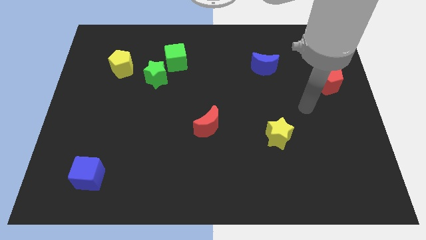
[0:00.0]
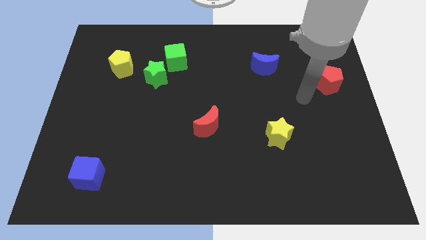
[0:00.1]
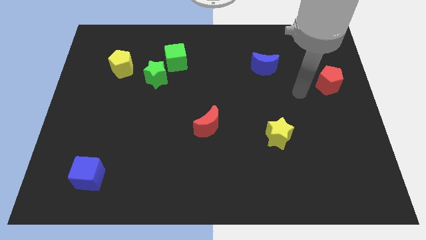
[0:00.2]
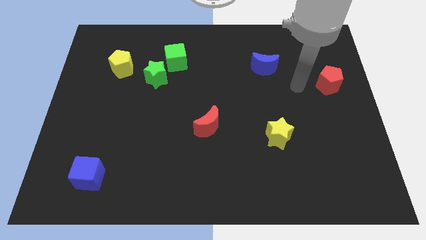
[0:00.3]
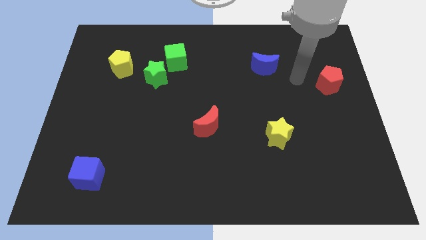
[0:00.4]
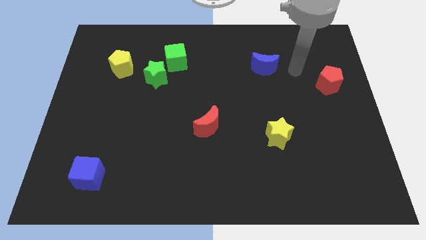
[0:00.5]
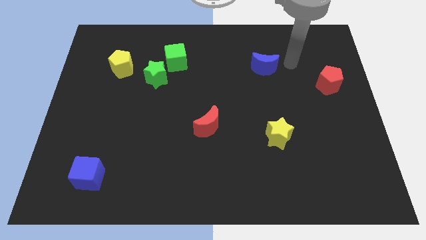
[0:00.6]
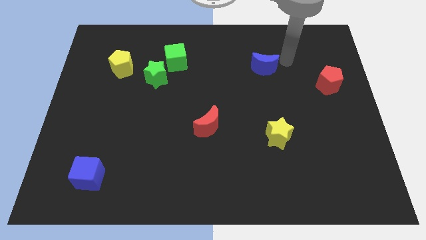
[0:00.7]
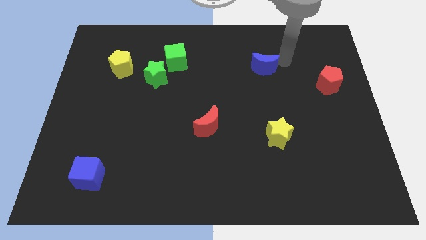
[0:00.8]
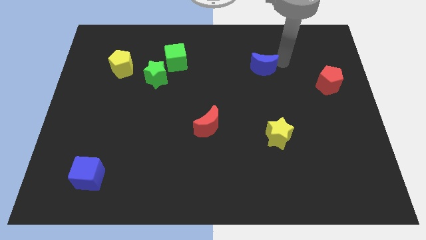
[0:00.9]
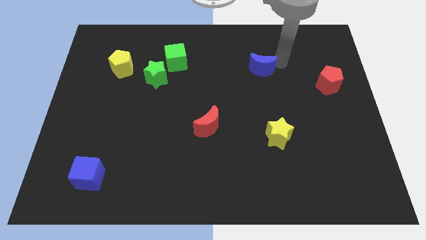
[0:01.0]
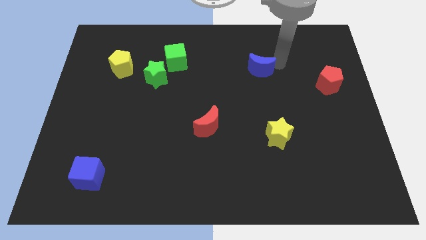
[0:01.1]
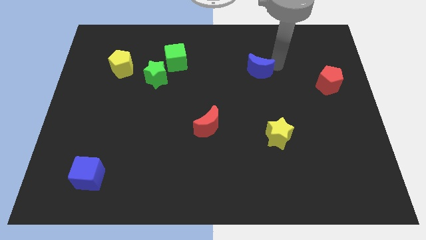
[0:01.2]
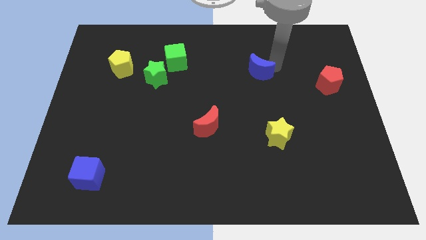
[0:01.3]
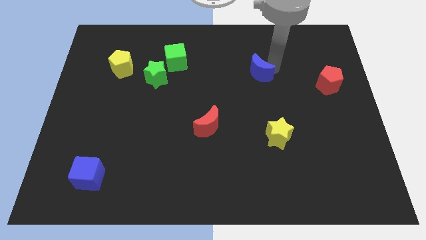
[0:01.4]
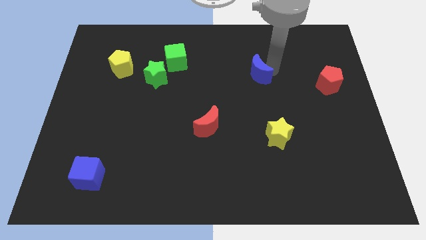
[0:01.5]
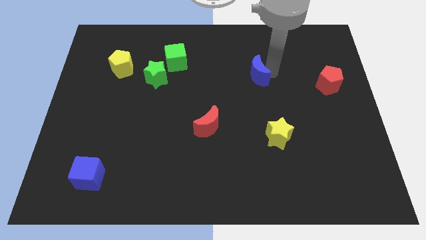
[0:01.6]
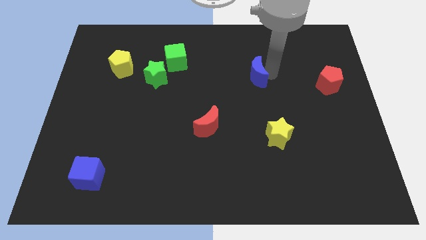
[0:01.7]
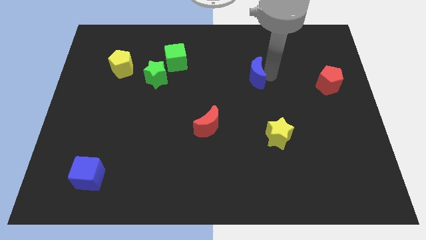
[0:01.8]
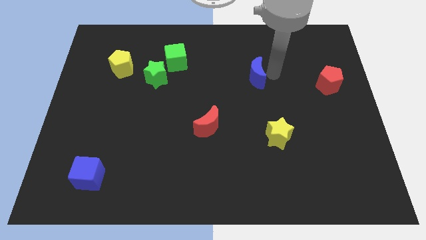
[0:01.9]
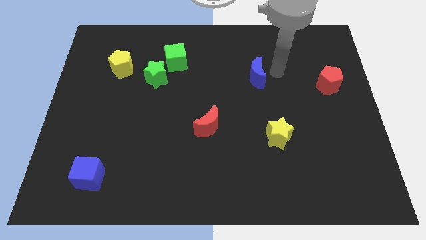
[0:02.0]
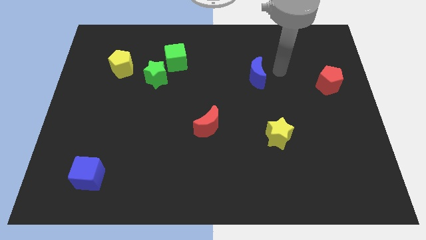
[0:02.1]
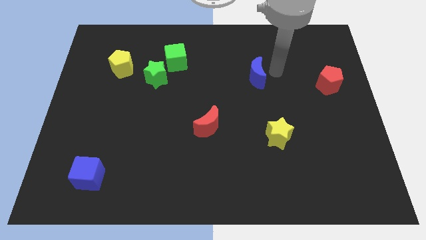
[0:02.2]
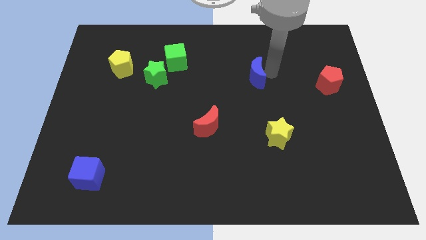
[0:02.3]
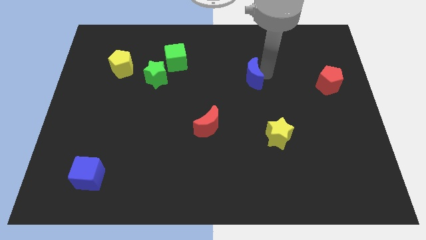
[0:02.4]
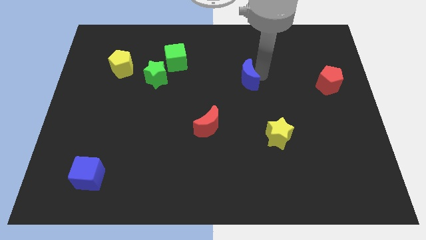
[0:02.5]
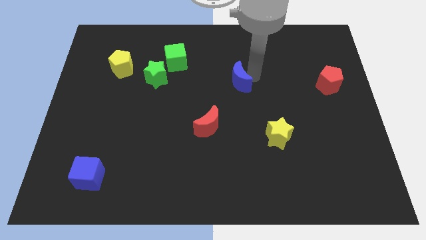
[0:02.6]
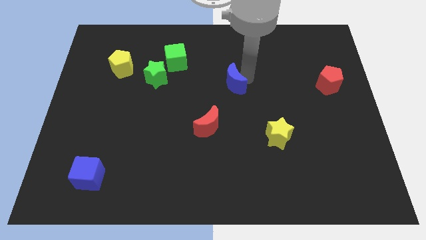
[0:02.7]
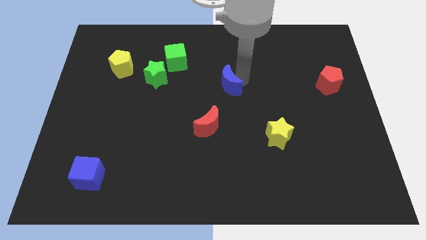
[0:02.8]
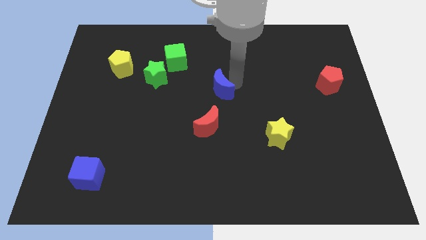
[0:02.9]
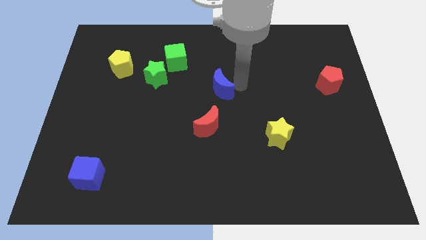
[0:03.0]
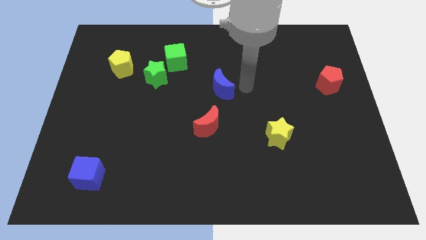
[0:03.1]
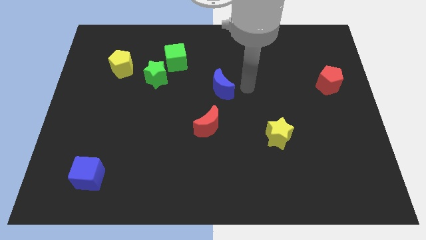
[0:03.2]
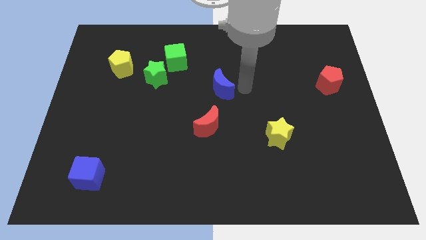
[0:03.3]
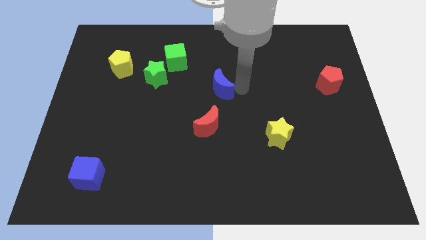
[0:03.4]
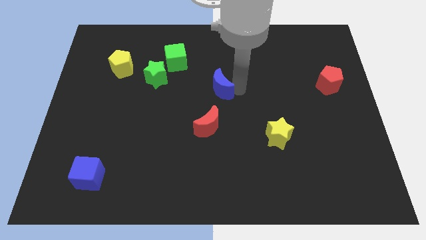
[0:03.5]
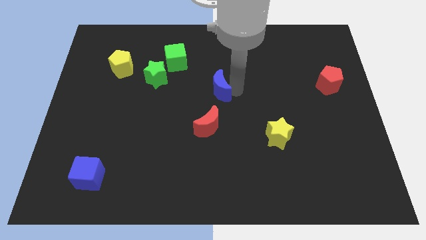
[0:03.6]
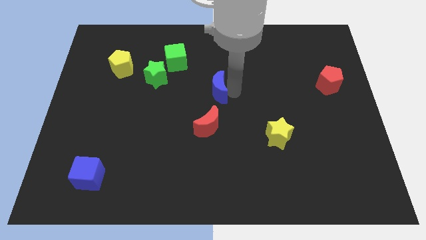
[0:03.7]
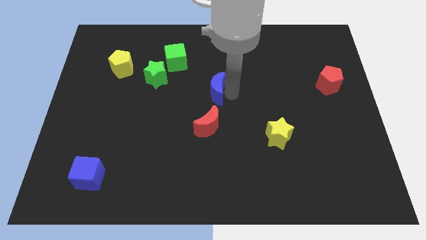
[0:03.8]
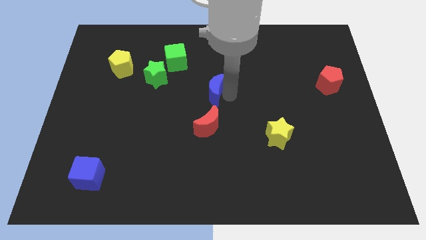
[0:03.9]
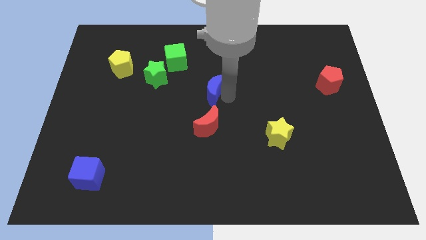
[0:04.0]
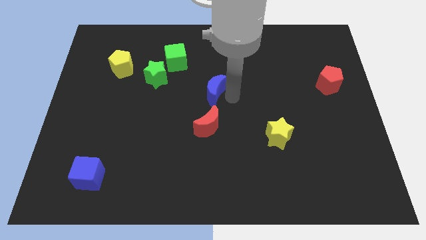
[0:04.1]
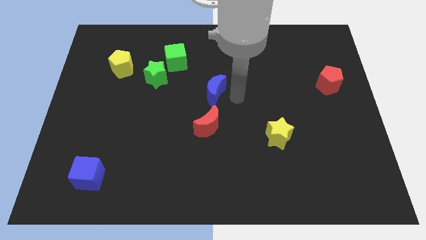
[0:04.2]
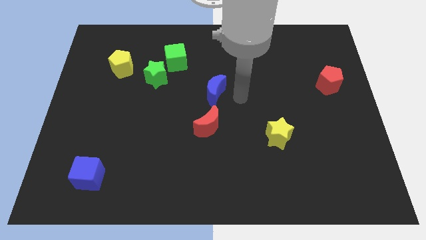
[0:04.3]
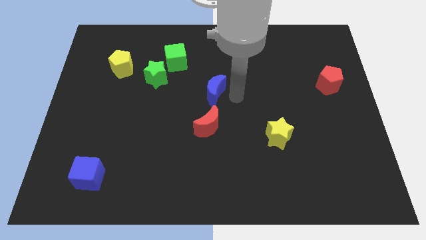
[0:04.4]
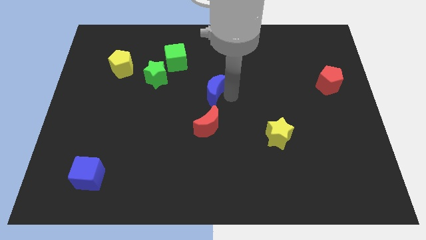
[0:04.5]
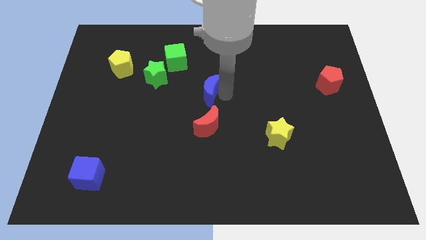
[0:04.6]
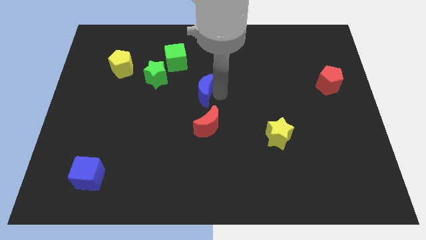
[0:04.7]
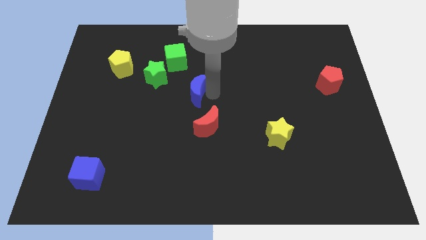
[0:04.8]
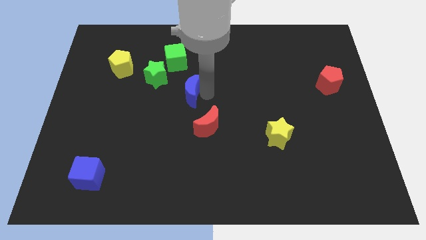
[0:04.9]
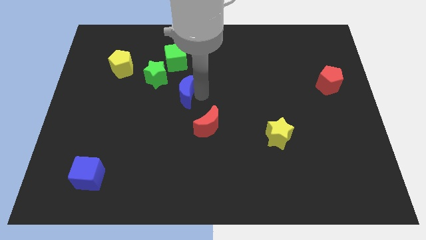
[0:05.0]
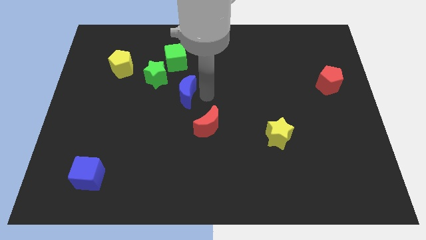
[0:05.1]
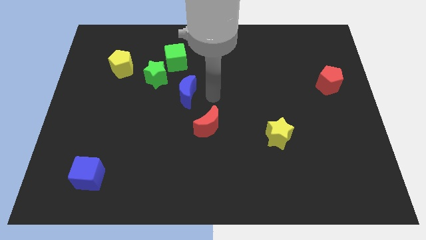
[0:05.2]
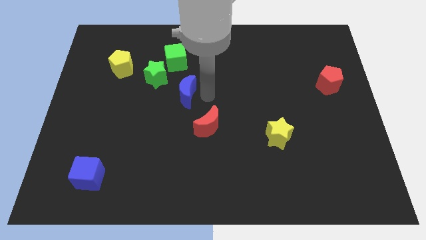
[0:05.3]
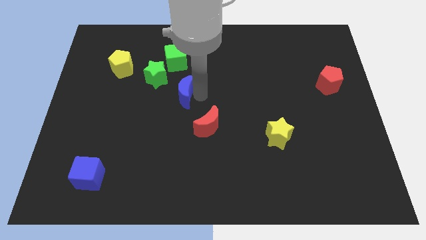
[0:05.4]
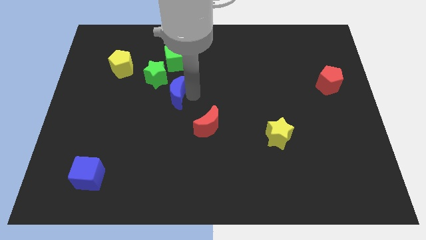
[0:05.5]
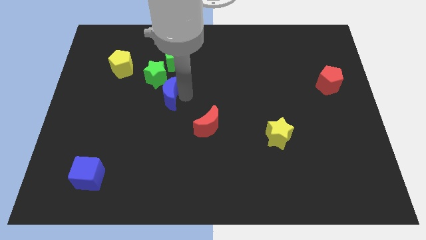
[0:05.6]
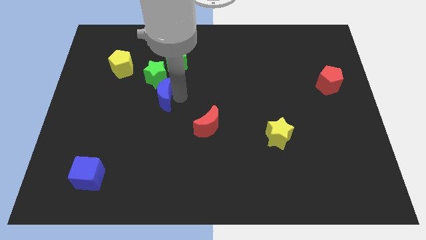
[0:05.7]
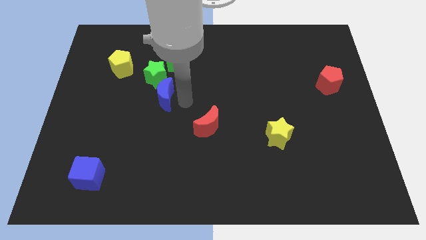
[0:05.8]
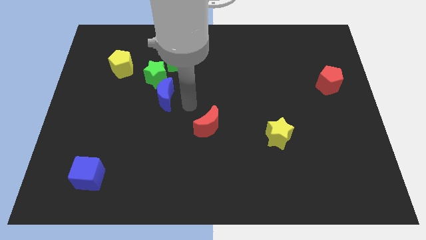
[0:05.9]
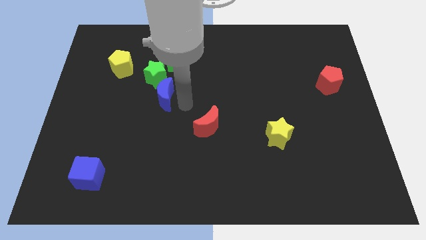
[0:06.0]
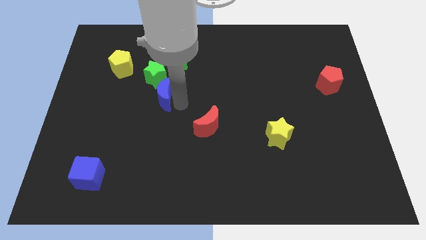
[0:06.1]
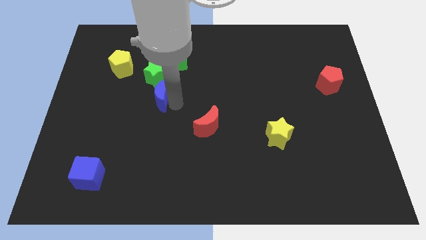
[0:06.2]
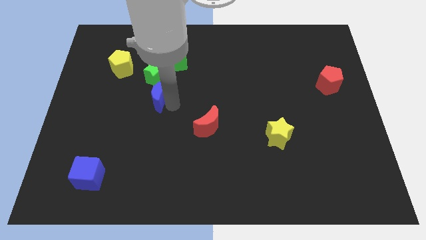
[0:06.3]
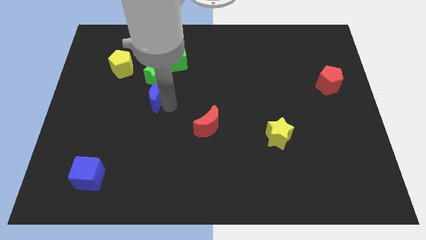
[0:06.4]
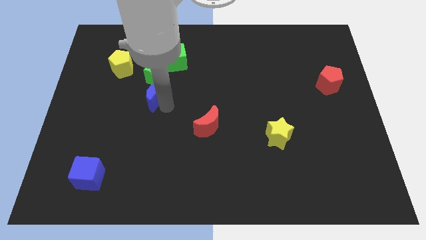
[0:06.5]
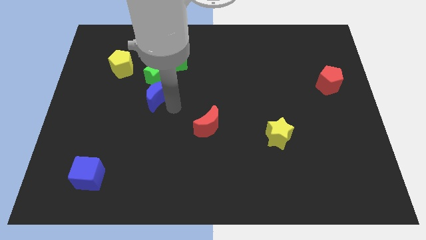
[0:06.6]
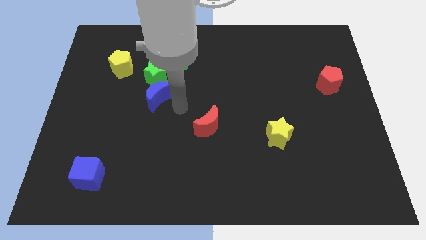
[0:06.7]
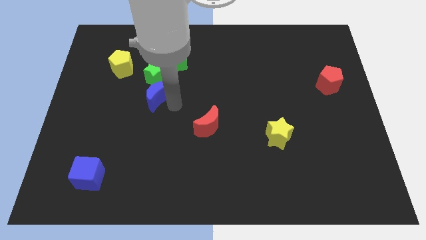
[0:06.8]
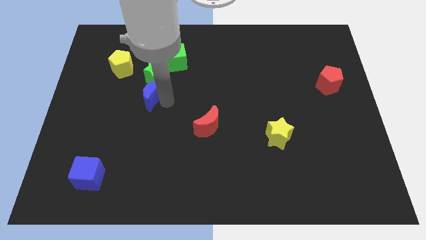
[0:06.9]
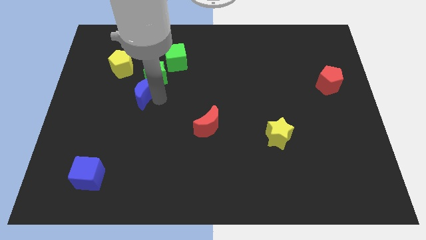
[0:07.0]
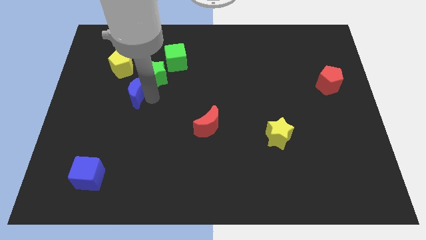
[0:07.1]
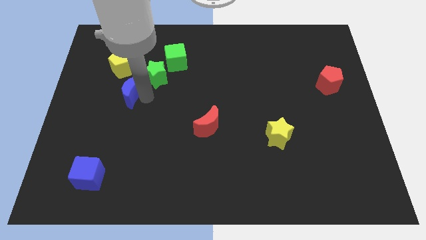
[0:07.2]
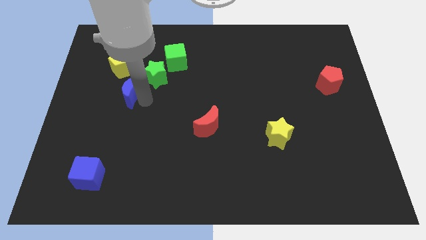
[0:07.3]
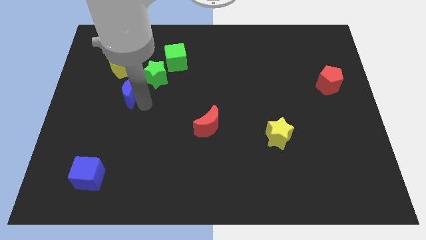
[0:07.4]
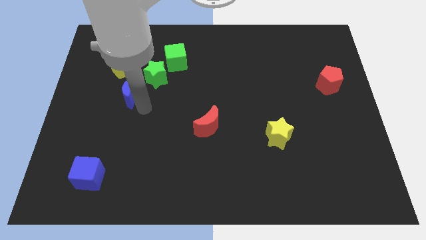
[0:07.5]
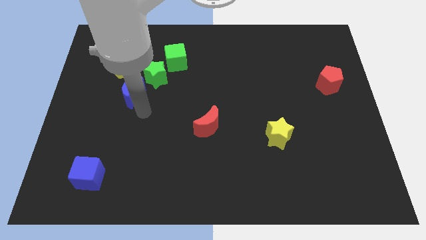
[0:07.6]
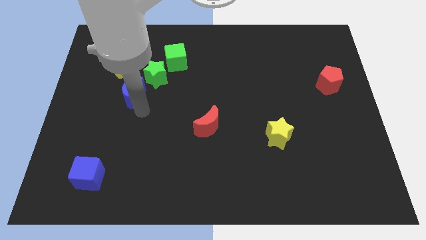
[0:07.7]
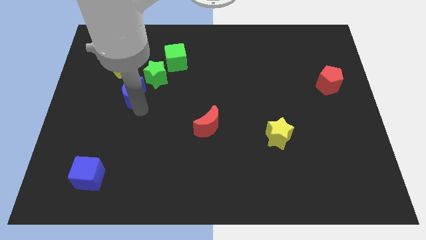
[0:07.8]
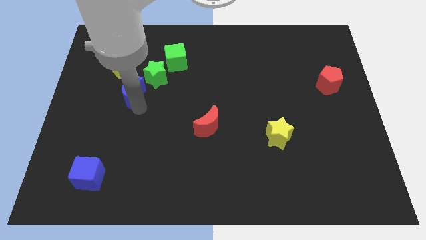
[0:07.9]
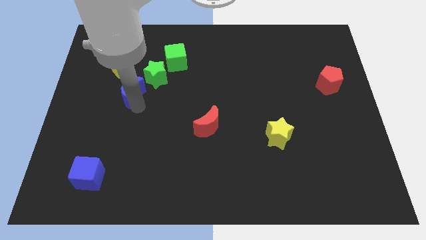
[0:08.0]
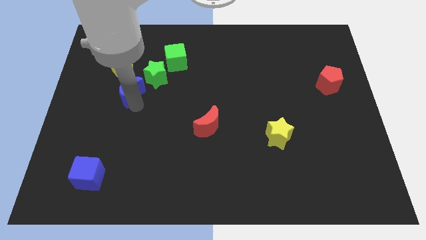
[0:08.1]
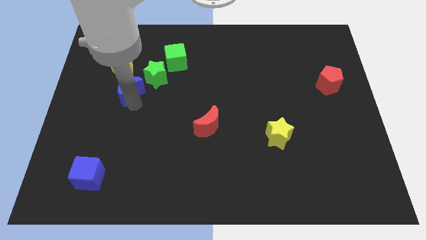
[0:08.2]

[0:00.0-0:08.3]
push the blue moon to the left of the green star
